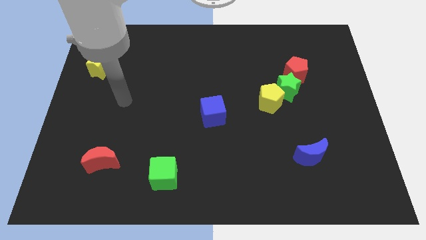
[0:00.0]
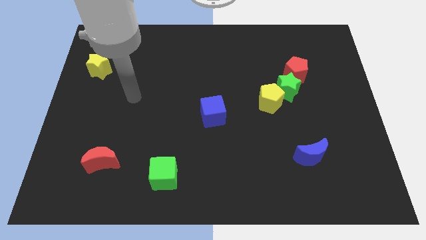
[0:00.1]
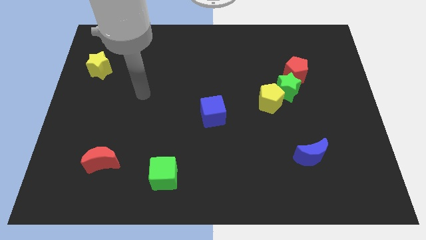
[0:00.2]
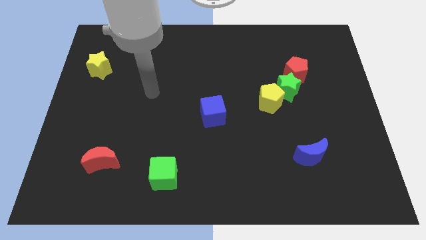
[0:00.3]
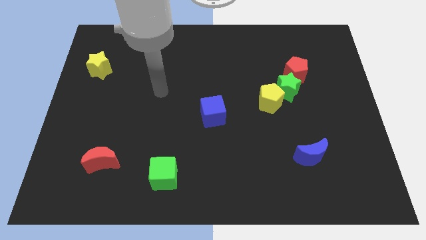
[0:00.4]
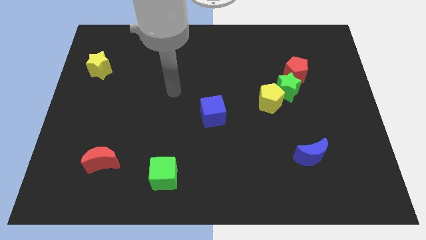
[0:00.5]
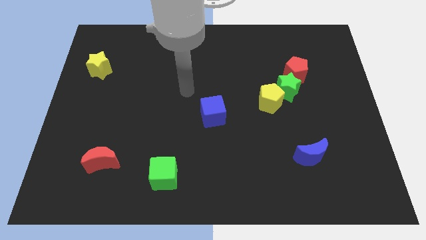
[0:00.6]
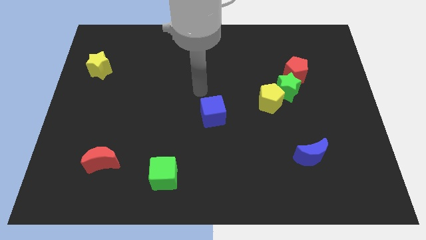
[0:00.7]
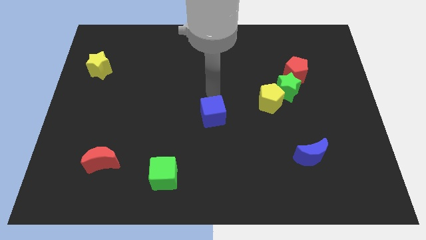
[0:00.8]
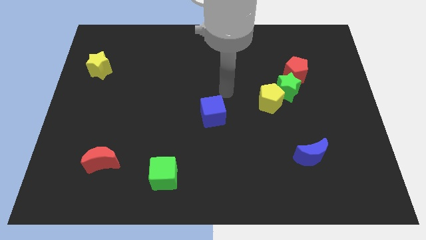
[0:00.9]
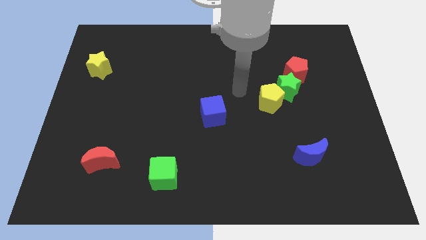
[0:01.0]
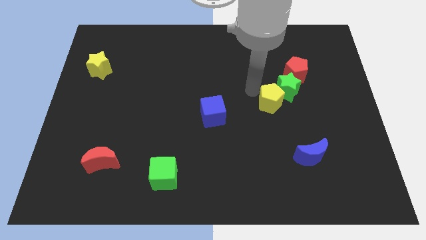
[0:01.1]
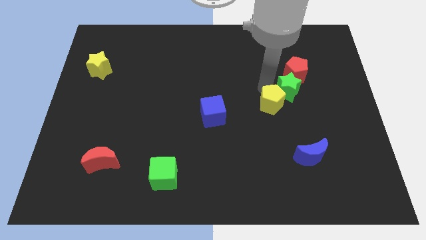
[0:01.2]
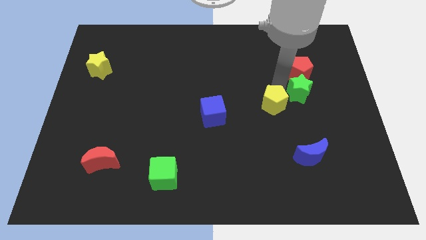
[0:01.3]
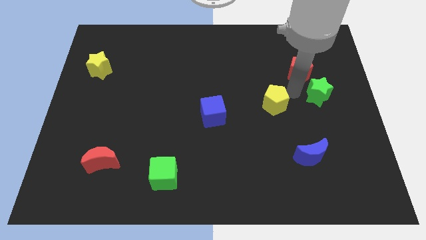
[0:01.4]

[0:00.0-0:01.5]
move the yellow pentagon away from the green star

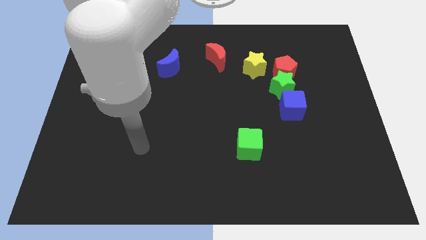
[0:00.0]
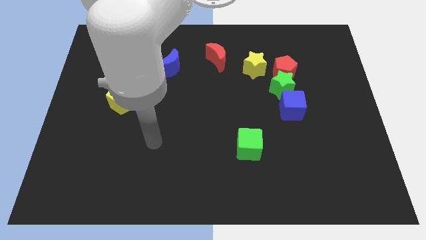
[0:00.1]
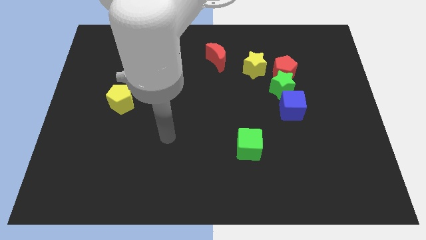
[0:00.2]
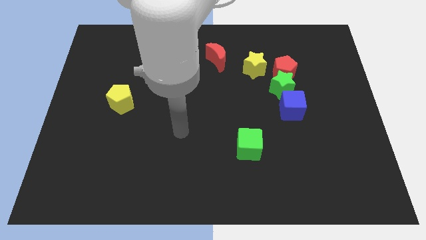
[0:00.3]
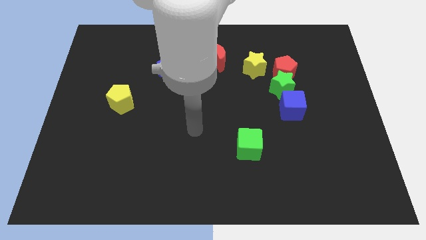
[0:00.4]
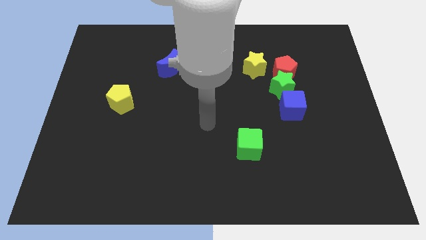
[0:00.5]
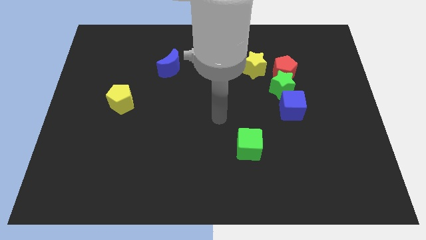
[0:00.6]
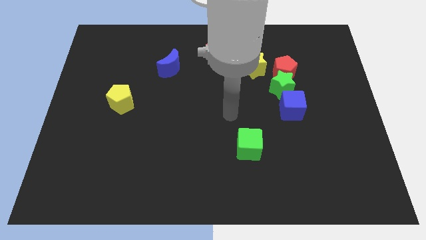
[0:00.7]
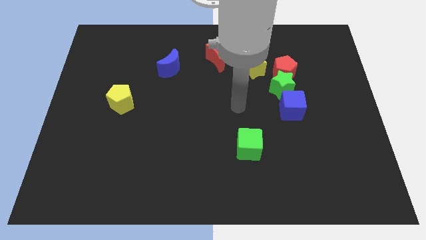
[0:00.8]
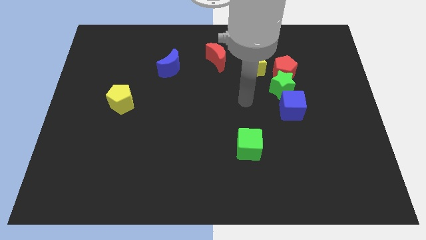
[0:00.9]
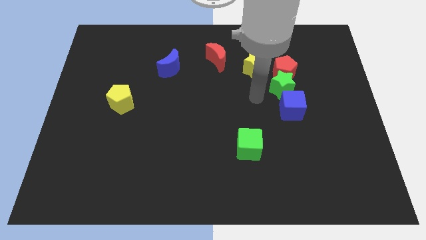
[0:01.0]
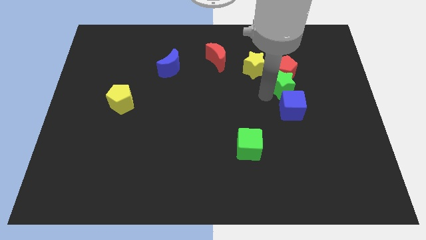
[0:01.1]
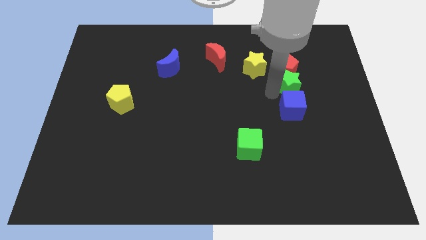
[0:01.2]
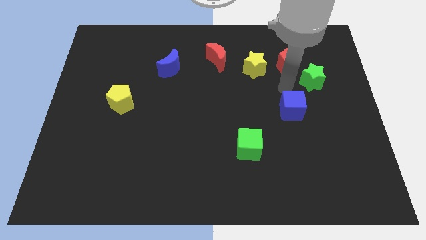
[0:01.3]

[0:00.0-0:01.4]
separate the blue cube from the green star

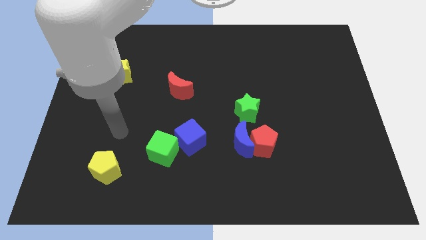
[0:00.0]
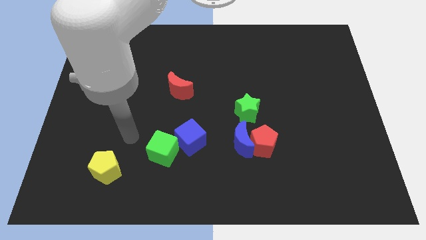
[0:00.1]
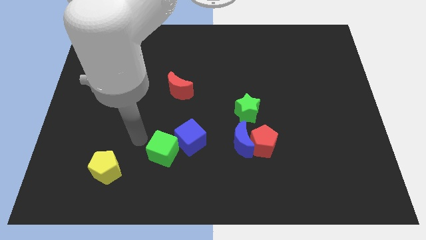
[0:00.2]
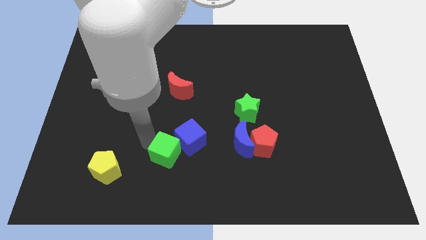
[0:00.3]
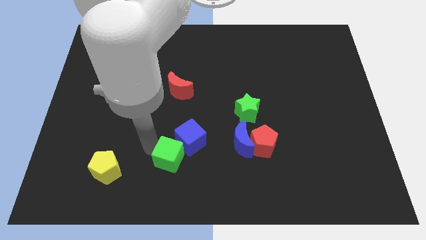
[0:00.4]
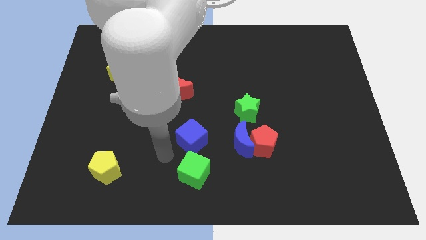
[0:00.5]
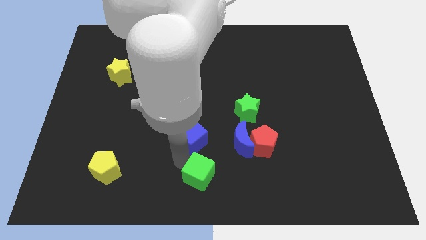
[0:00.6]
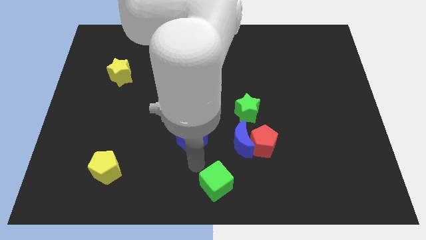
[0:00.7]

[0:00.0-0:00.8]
pull the blue cube apart from the green cube

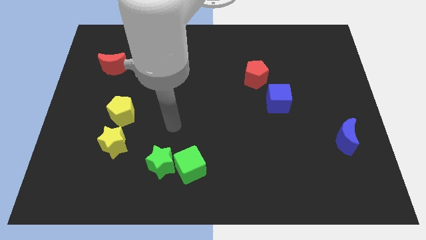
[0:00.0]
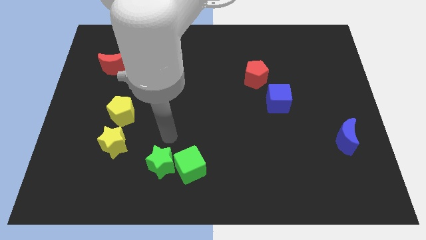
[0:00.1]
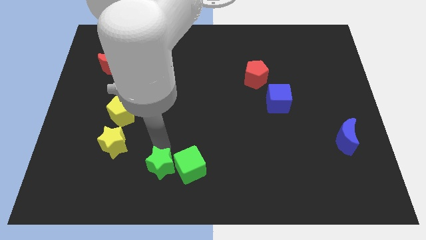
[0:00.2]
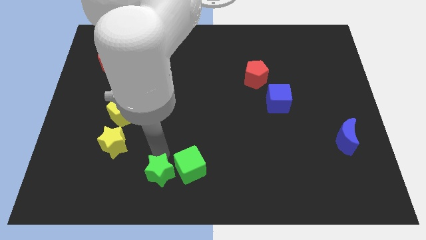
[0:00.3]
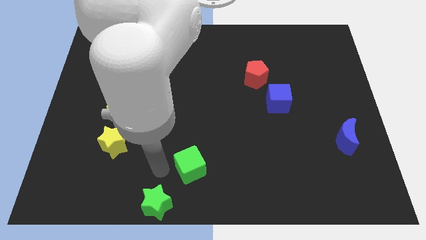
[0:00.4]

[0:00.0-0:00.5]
pull the green cube apart from the green star

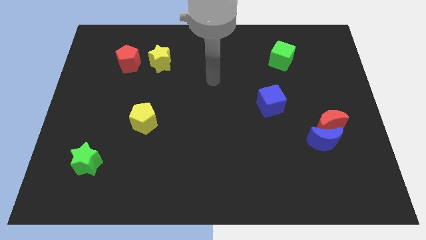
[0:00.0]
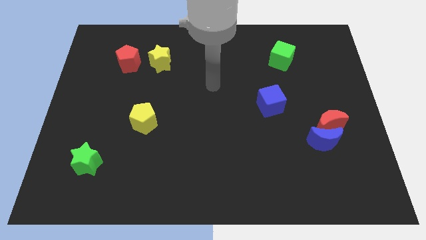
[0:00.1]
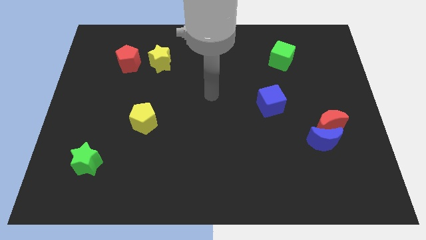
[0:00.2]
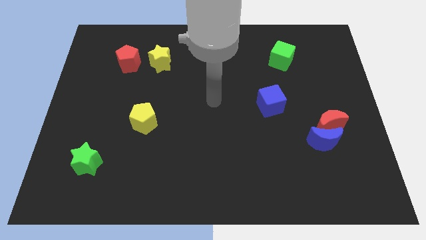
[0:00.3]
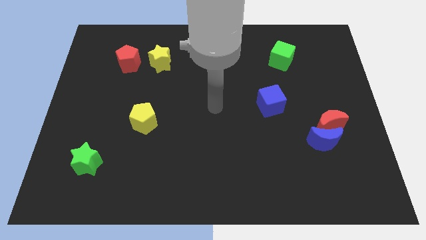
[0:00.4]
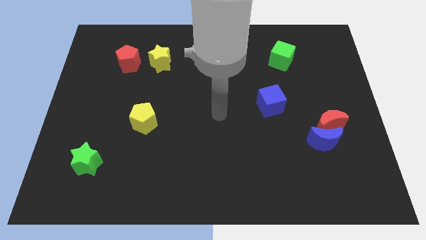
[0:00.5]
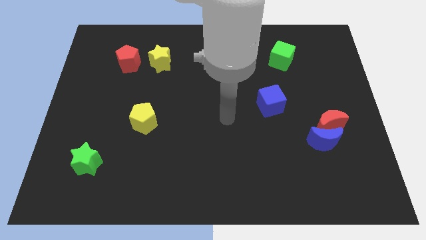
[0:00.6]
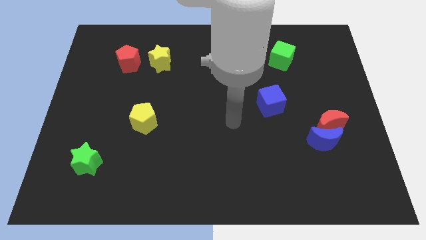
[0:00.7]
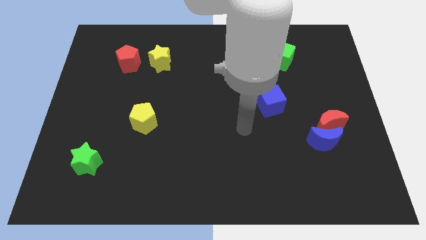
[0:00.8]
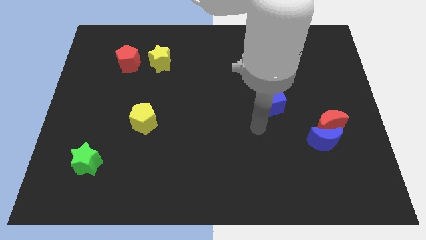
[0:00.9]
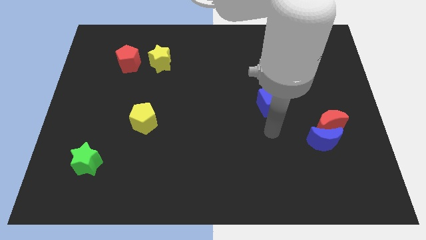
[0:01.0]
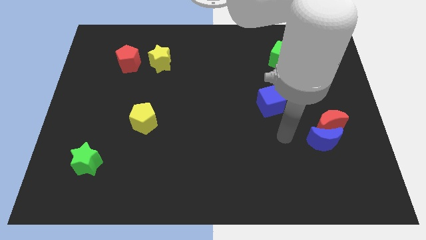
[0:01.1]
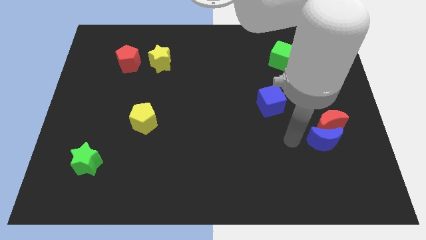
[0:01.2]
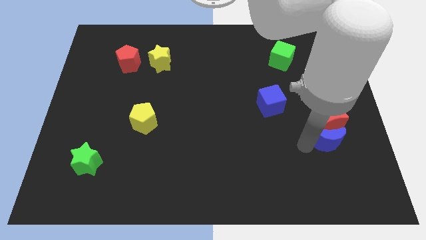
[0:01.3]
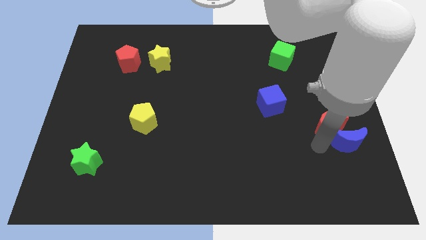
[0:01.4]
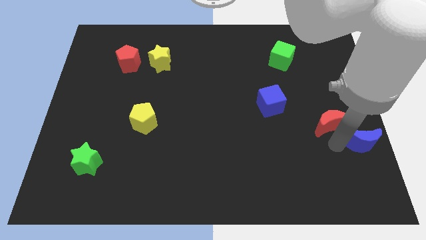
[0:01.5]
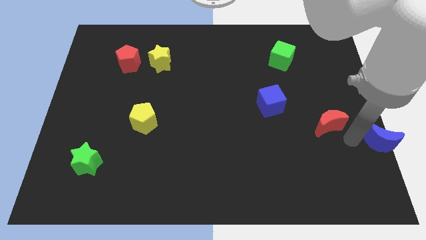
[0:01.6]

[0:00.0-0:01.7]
pull the red moon apart from the blue moon

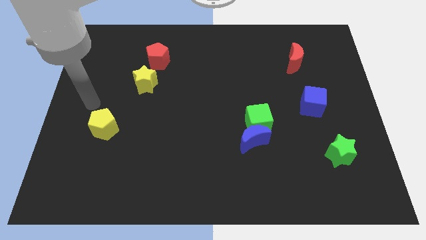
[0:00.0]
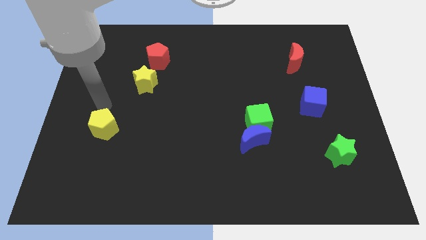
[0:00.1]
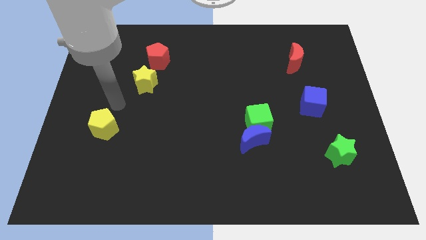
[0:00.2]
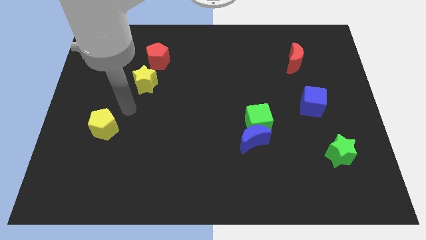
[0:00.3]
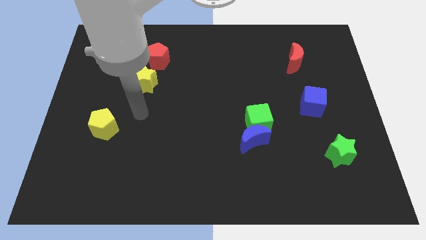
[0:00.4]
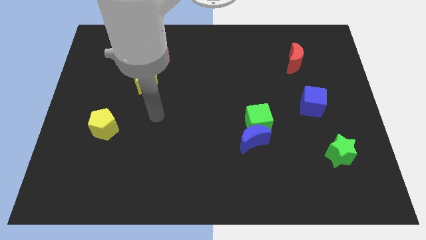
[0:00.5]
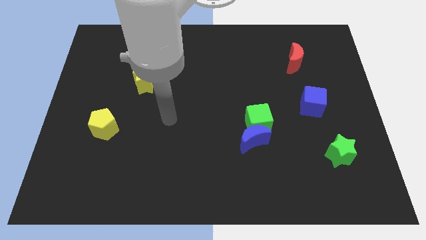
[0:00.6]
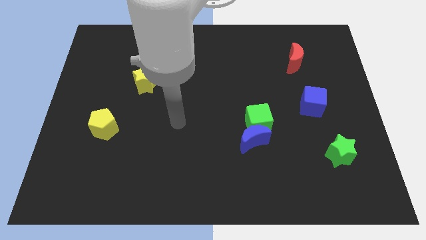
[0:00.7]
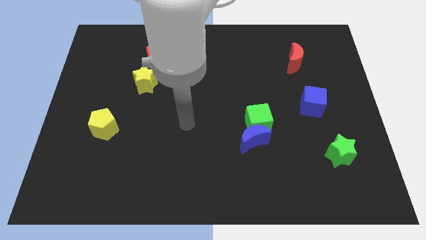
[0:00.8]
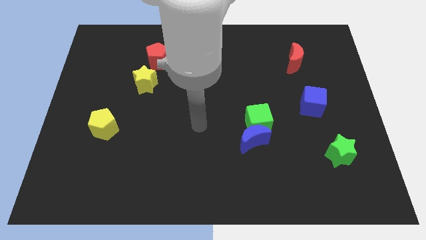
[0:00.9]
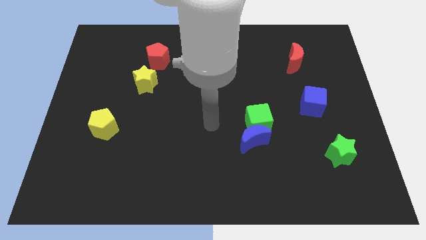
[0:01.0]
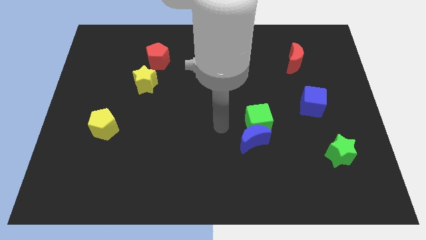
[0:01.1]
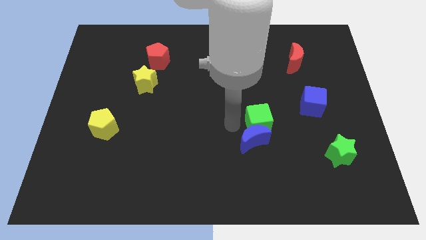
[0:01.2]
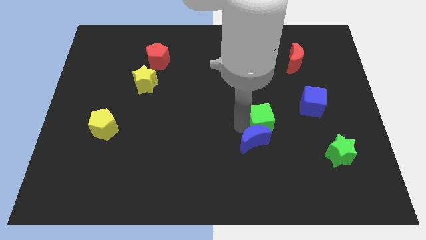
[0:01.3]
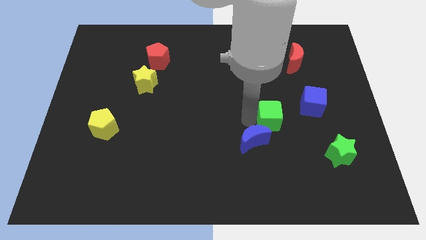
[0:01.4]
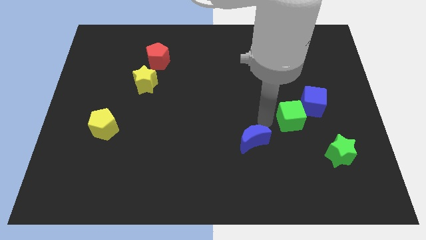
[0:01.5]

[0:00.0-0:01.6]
separate the blue moon from the green cube

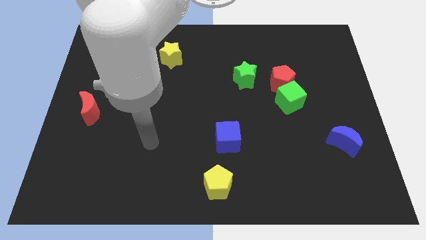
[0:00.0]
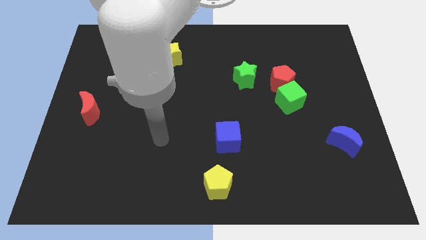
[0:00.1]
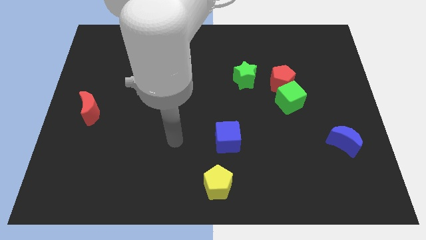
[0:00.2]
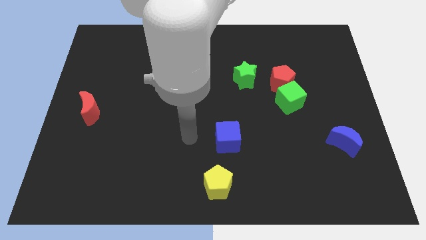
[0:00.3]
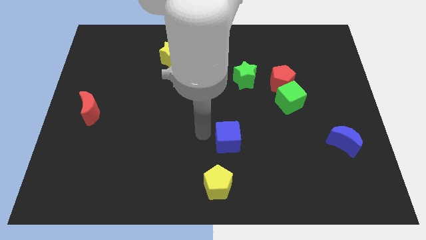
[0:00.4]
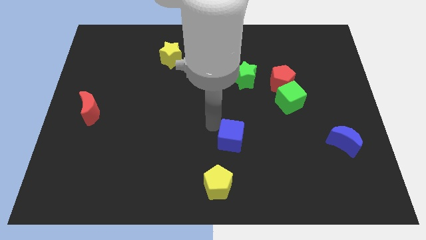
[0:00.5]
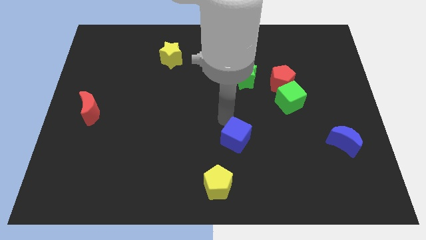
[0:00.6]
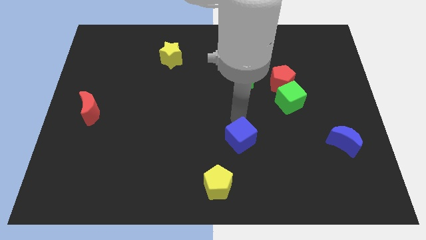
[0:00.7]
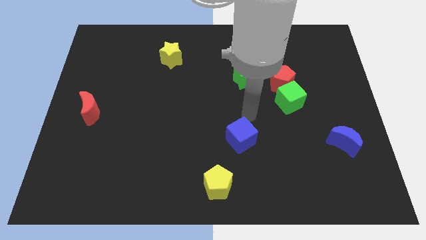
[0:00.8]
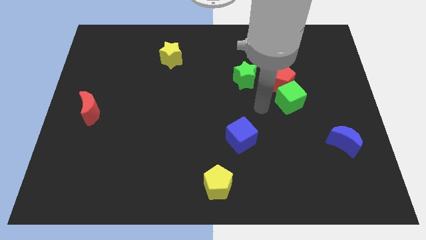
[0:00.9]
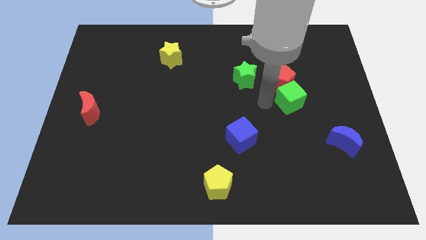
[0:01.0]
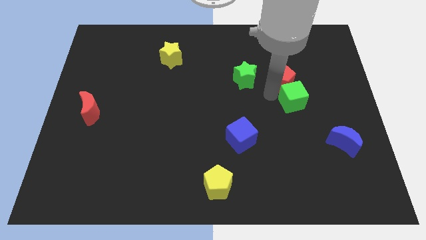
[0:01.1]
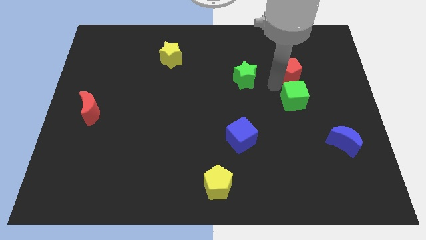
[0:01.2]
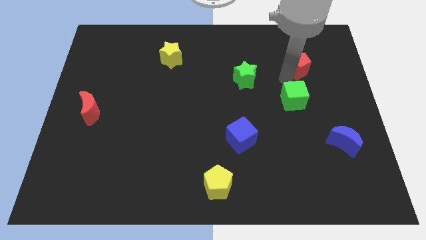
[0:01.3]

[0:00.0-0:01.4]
separate the green cube from the red pentagon

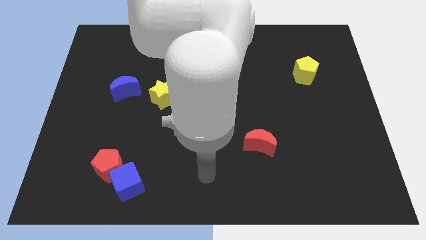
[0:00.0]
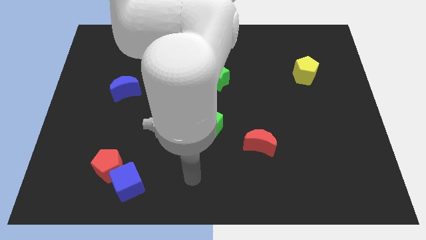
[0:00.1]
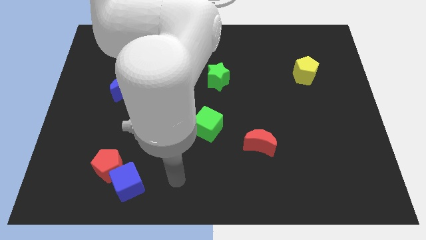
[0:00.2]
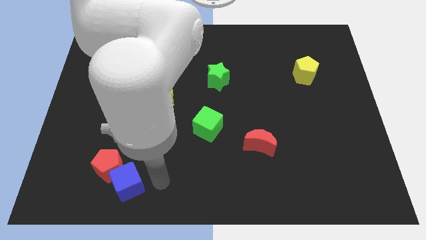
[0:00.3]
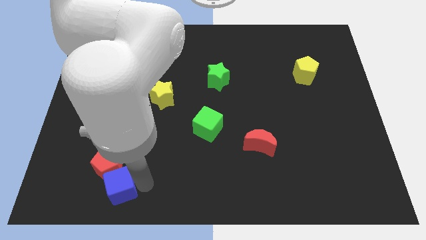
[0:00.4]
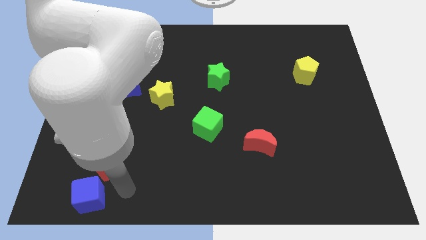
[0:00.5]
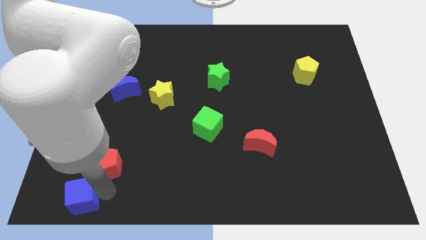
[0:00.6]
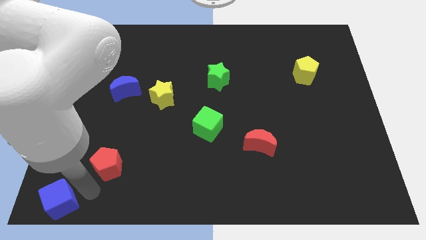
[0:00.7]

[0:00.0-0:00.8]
separate the red pentagon from the blue cube
